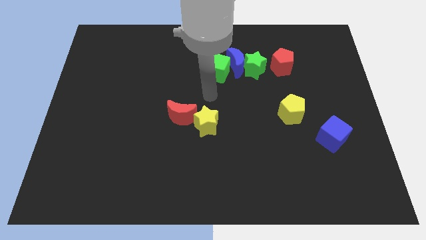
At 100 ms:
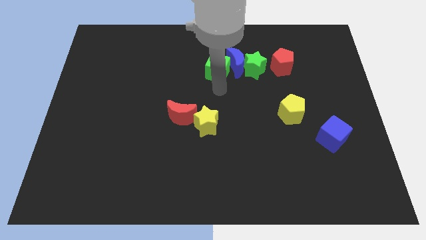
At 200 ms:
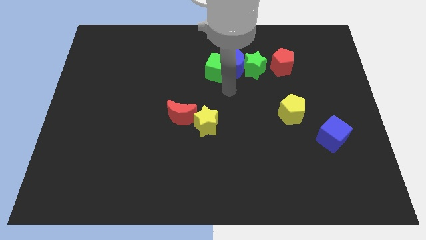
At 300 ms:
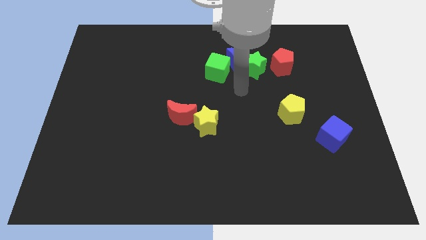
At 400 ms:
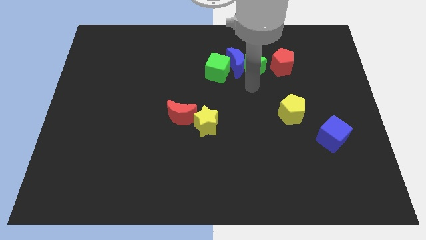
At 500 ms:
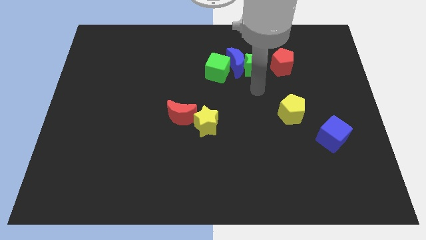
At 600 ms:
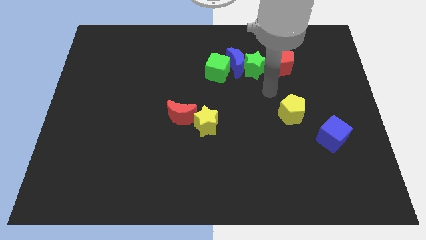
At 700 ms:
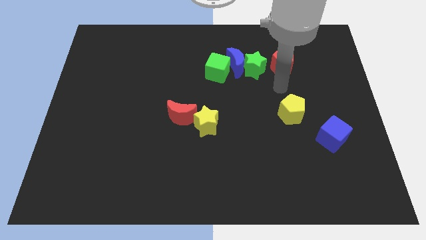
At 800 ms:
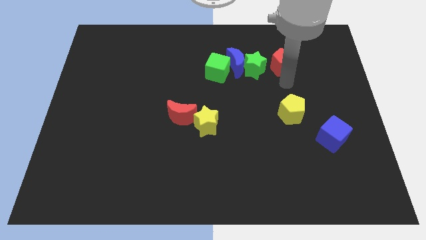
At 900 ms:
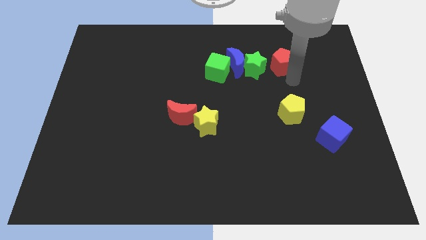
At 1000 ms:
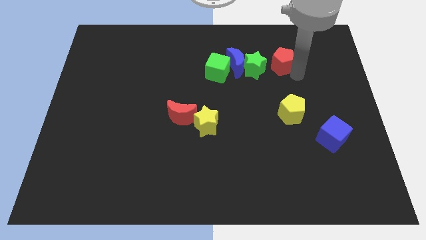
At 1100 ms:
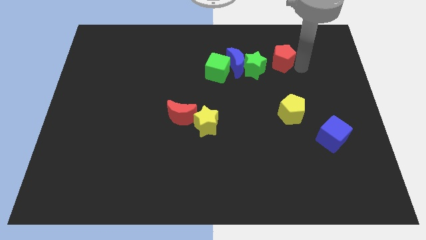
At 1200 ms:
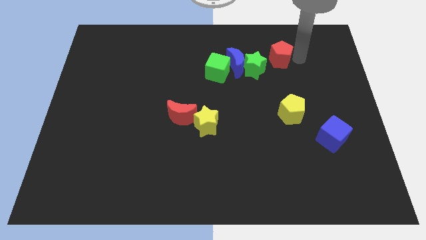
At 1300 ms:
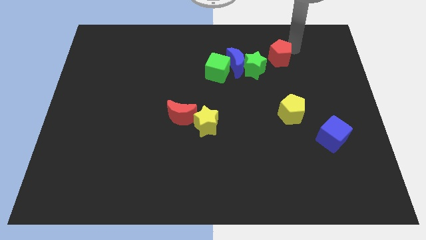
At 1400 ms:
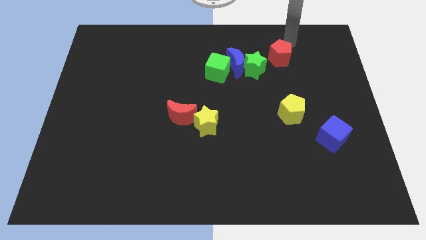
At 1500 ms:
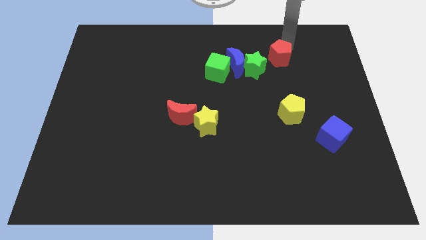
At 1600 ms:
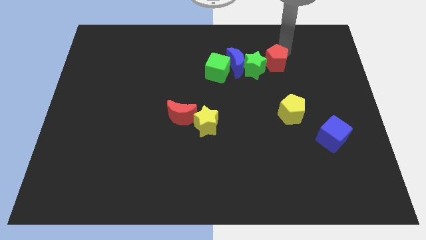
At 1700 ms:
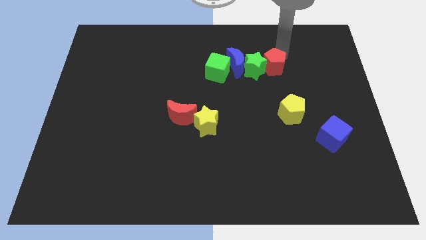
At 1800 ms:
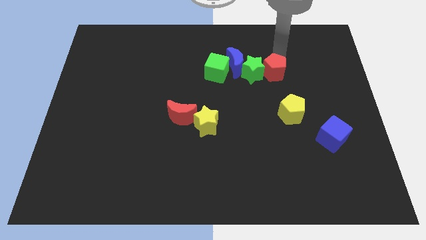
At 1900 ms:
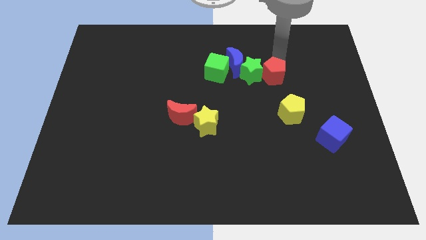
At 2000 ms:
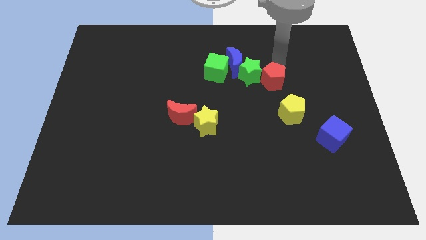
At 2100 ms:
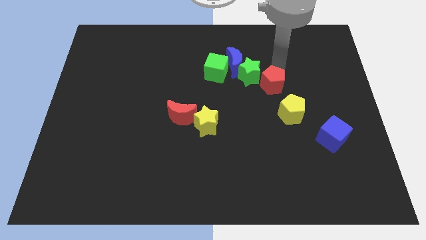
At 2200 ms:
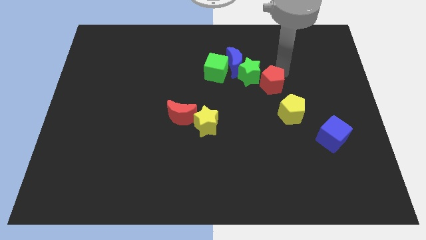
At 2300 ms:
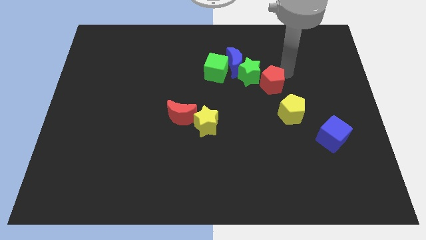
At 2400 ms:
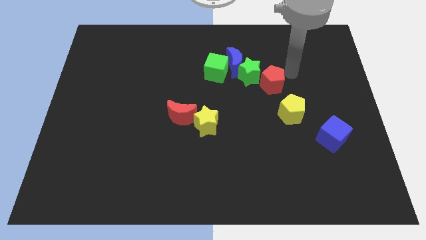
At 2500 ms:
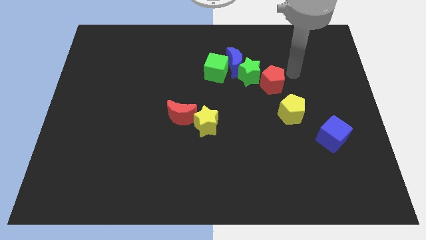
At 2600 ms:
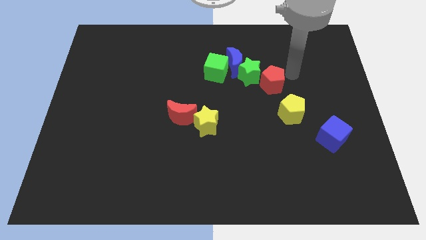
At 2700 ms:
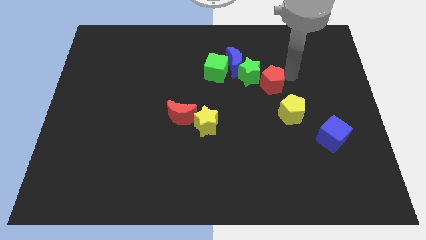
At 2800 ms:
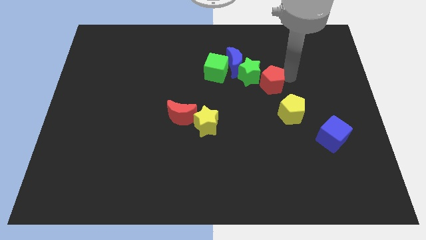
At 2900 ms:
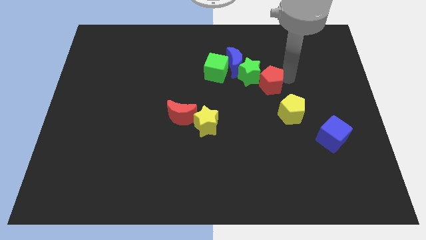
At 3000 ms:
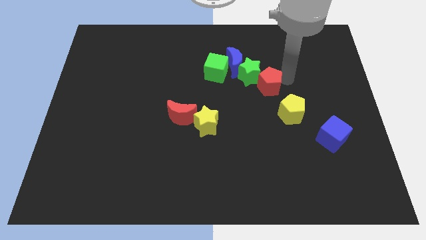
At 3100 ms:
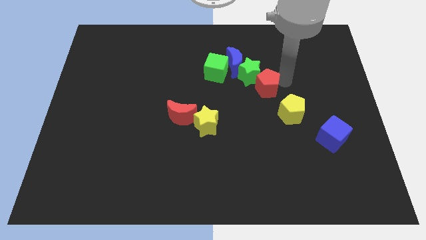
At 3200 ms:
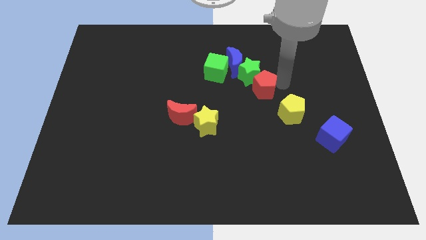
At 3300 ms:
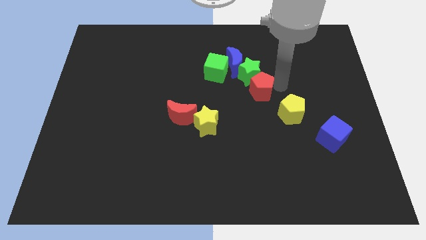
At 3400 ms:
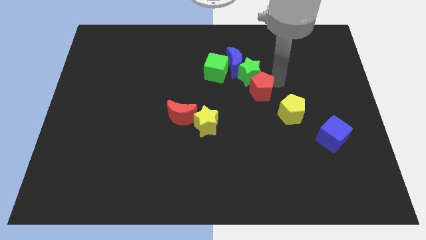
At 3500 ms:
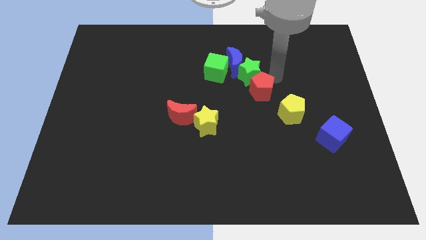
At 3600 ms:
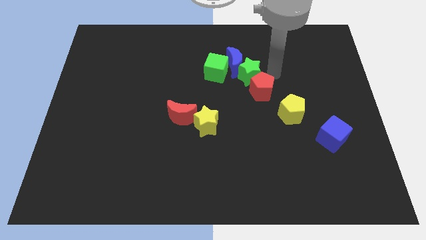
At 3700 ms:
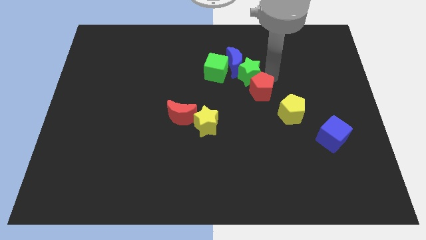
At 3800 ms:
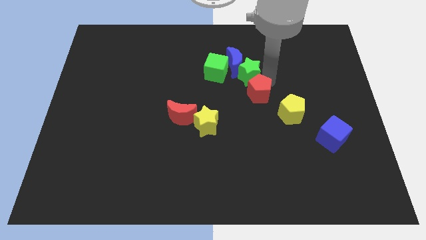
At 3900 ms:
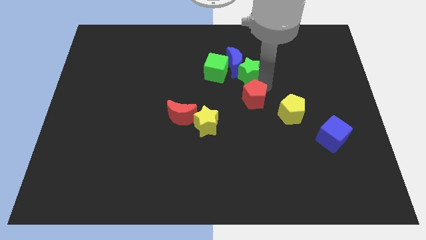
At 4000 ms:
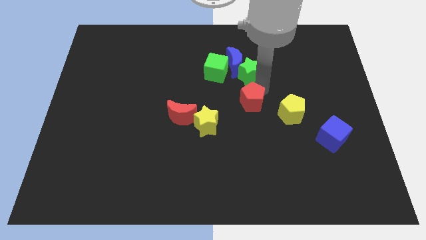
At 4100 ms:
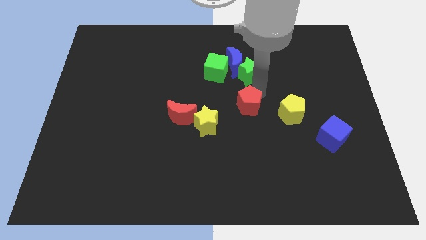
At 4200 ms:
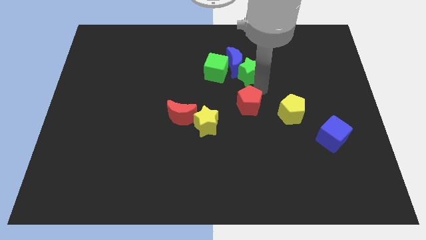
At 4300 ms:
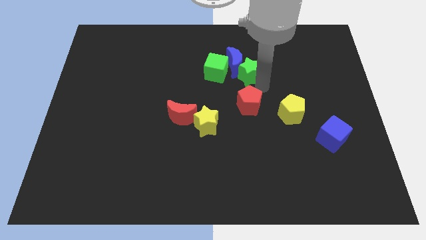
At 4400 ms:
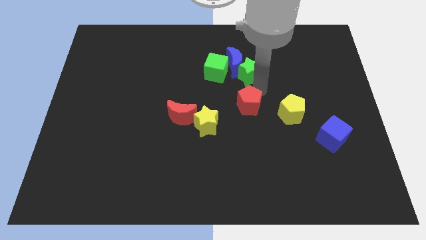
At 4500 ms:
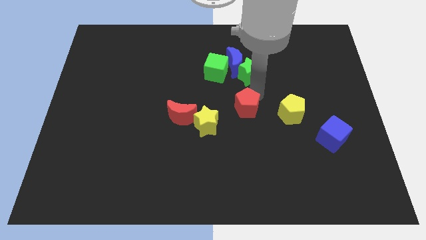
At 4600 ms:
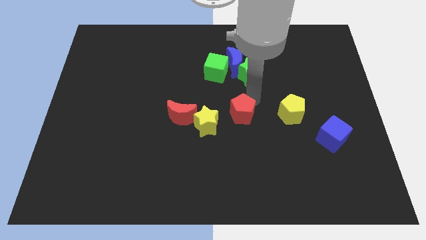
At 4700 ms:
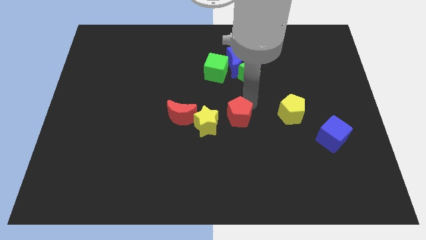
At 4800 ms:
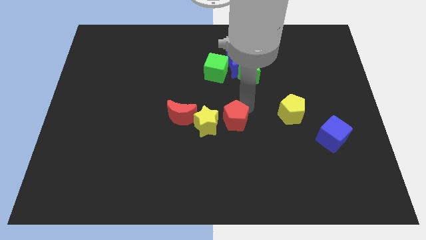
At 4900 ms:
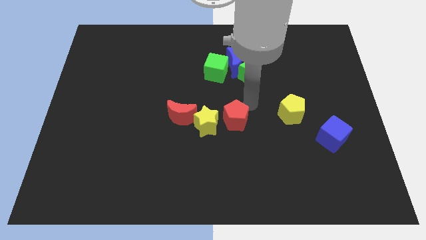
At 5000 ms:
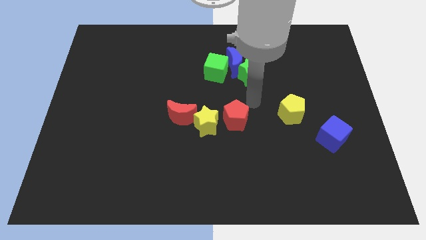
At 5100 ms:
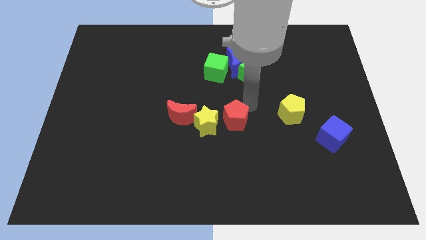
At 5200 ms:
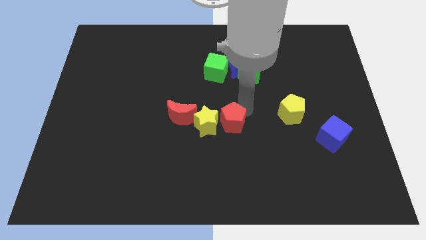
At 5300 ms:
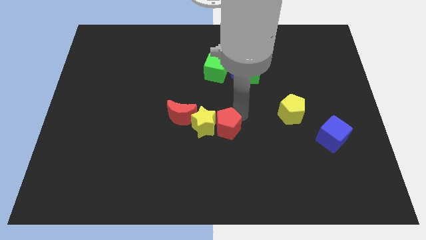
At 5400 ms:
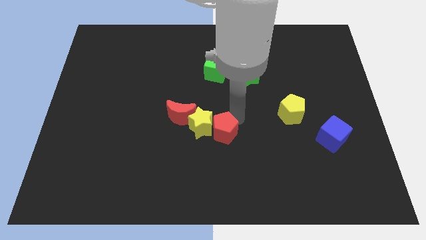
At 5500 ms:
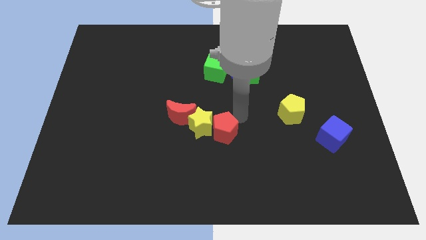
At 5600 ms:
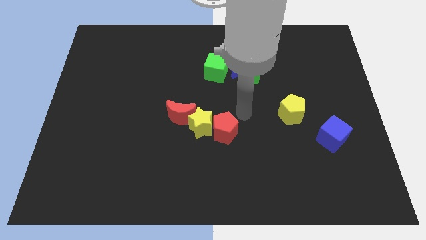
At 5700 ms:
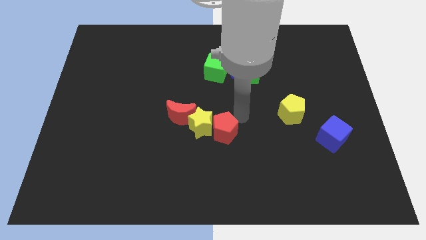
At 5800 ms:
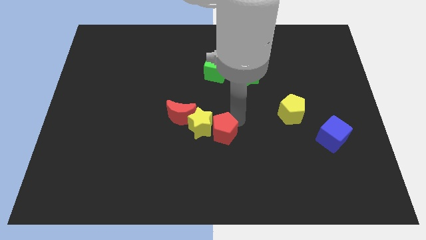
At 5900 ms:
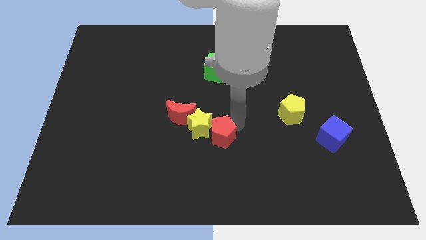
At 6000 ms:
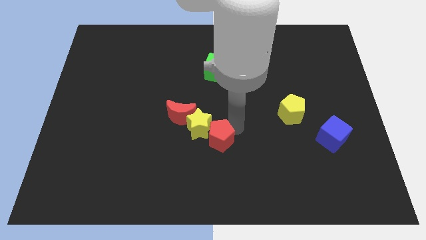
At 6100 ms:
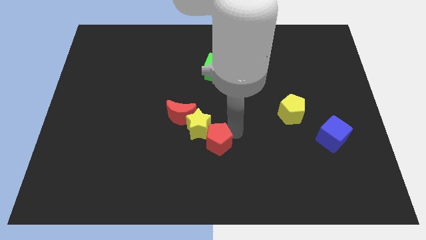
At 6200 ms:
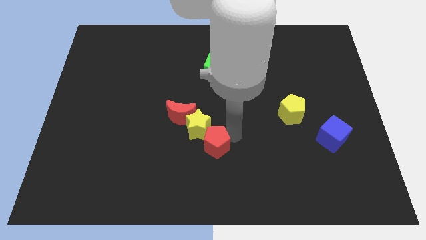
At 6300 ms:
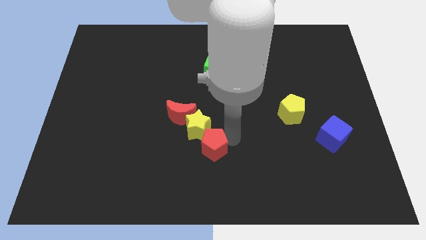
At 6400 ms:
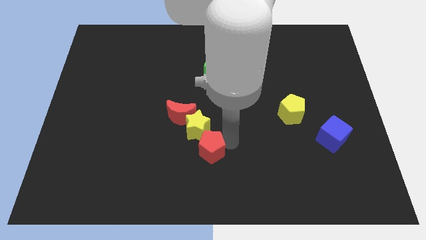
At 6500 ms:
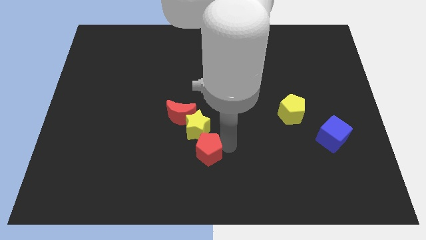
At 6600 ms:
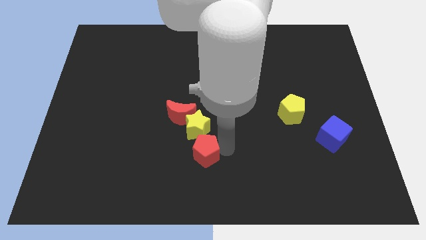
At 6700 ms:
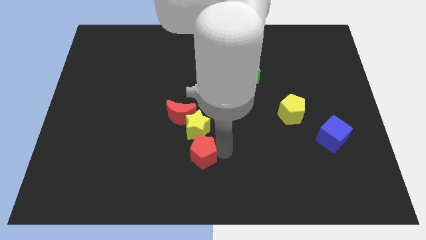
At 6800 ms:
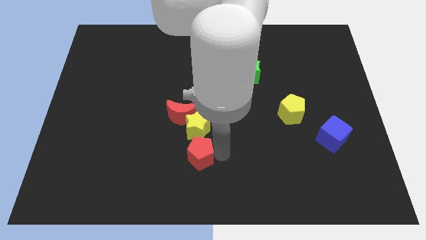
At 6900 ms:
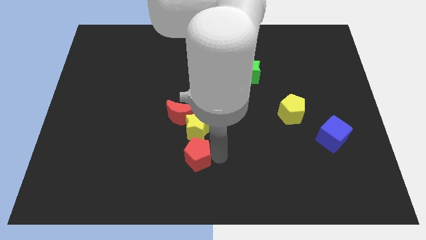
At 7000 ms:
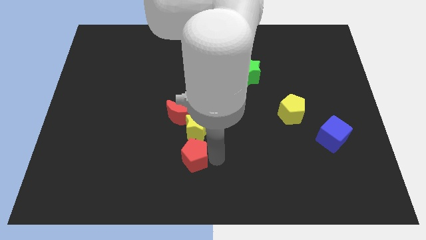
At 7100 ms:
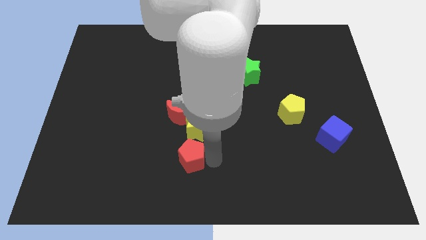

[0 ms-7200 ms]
slide the red pentagon to the bottom left of the yellow star

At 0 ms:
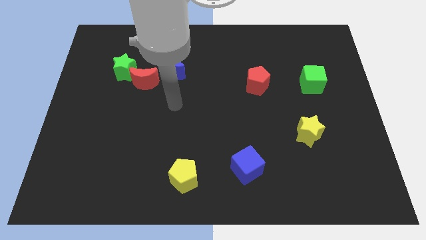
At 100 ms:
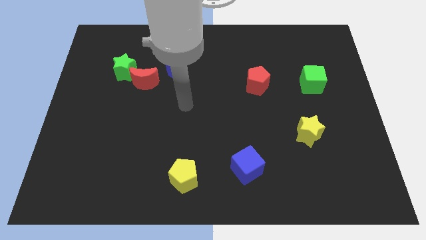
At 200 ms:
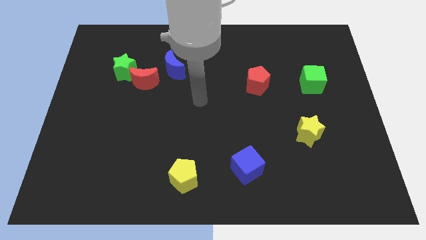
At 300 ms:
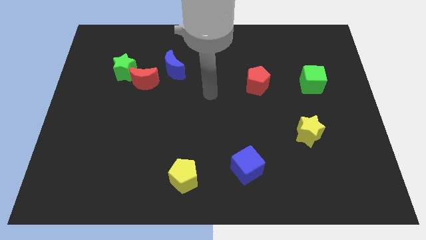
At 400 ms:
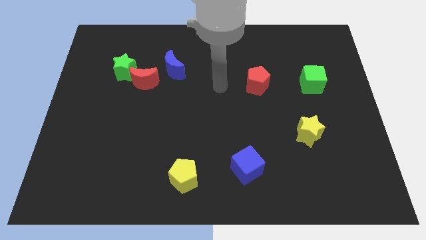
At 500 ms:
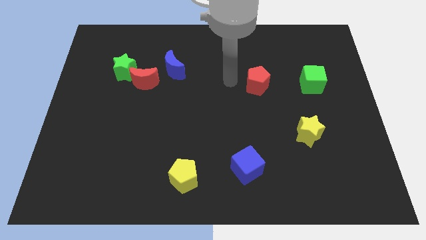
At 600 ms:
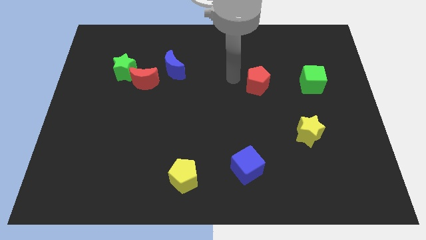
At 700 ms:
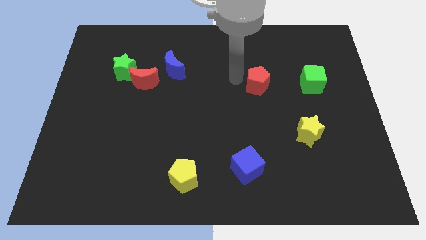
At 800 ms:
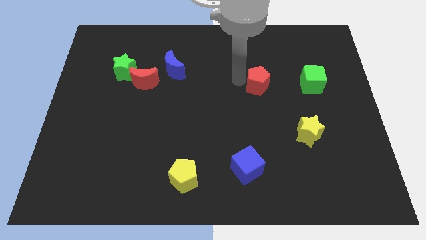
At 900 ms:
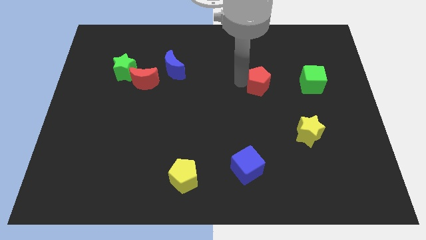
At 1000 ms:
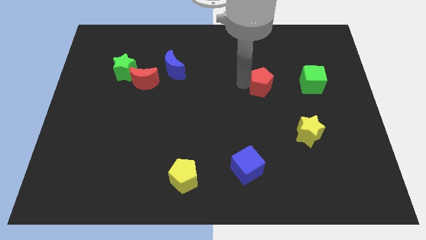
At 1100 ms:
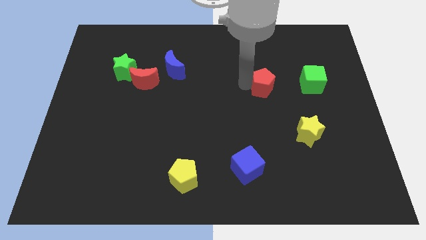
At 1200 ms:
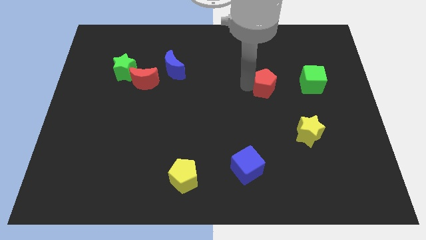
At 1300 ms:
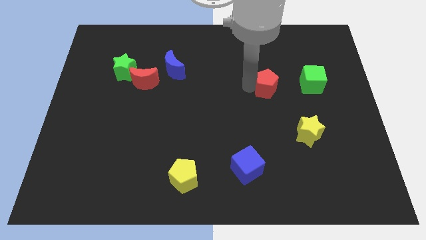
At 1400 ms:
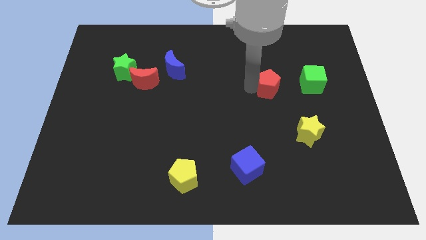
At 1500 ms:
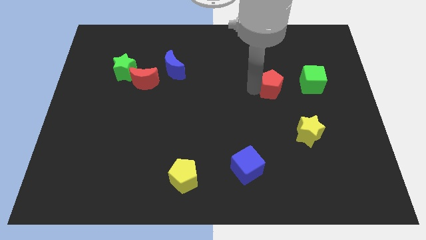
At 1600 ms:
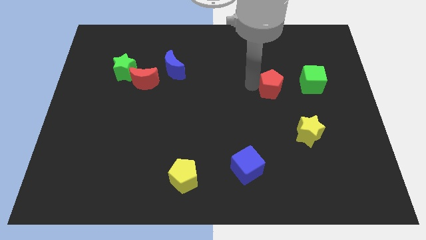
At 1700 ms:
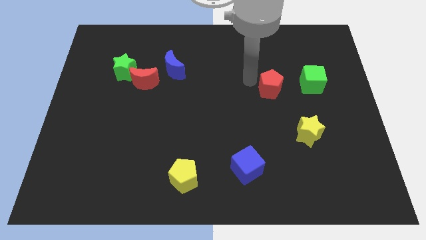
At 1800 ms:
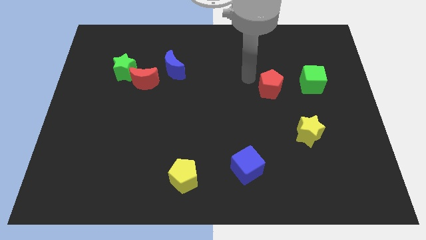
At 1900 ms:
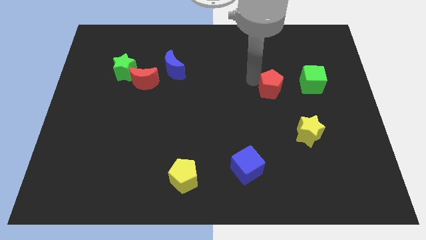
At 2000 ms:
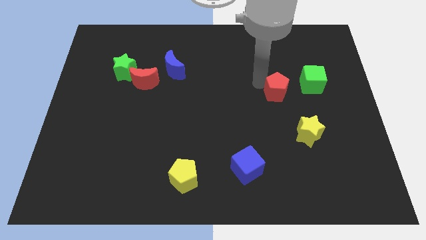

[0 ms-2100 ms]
put the red pentagon to the bottom left of the green cube
